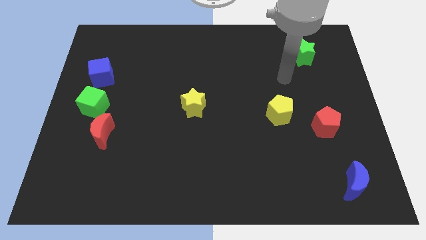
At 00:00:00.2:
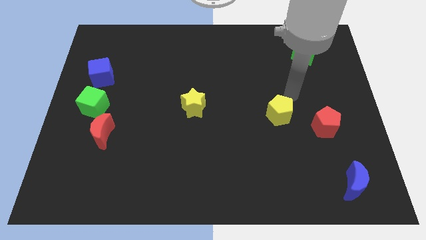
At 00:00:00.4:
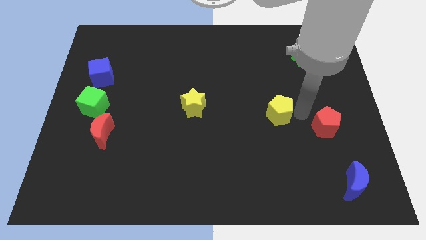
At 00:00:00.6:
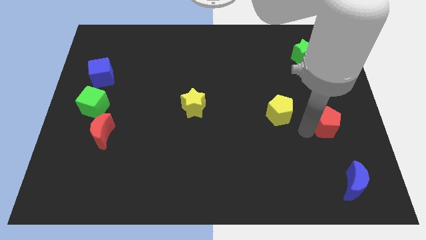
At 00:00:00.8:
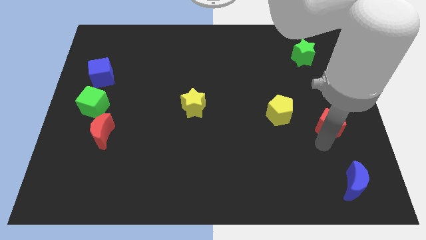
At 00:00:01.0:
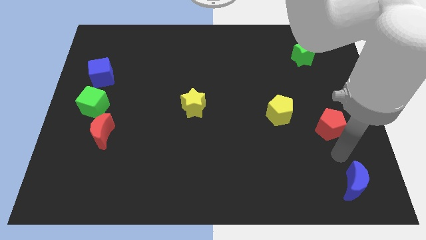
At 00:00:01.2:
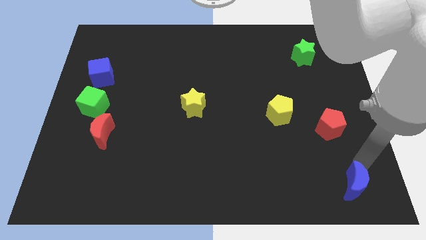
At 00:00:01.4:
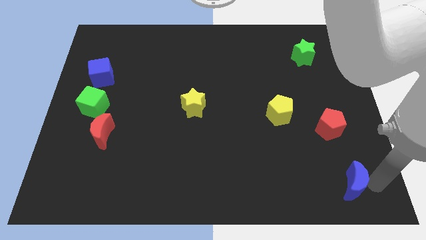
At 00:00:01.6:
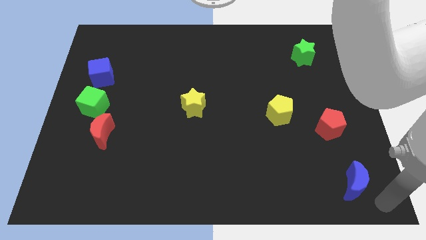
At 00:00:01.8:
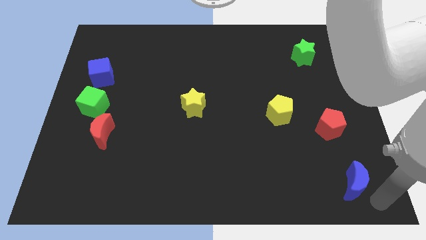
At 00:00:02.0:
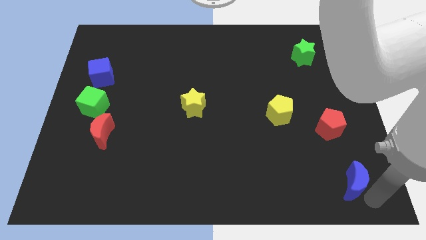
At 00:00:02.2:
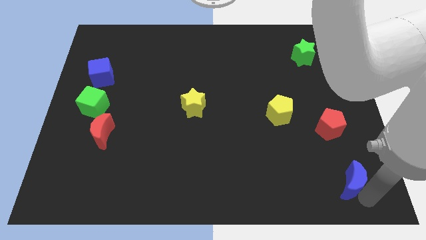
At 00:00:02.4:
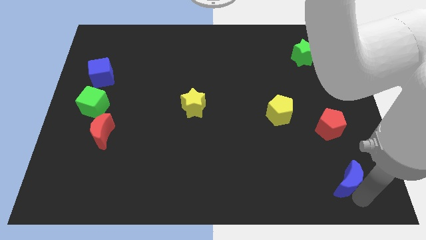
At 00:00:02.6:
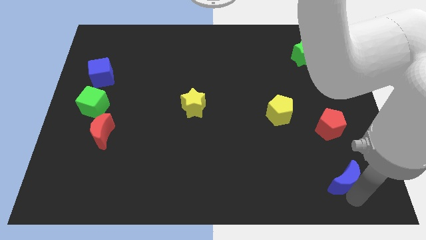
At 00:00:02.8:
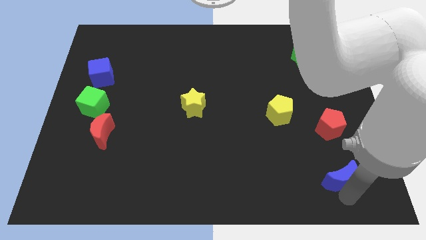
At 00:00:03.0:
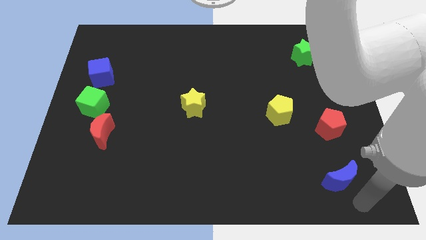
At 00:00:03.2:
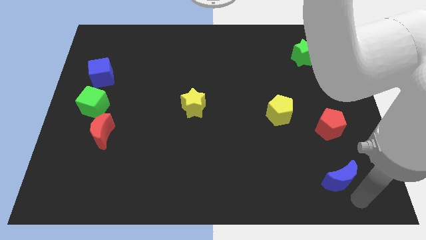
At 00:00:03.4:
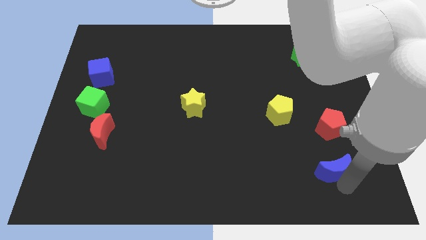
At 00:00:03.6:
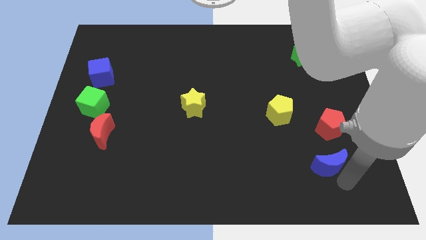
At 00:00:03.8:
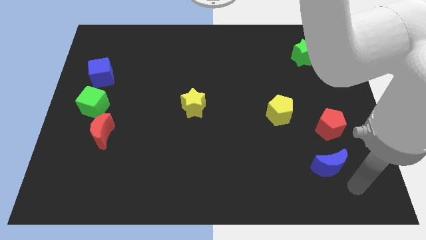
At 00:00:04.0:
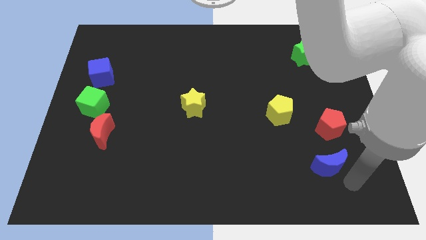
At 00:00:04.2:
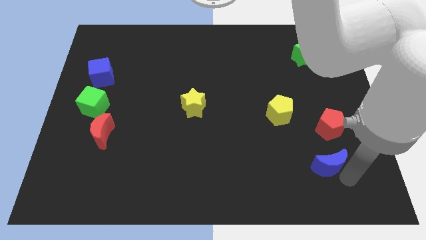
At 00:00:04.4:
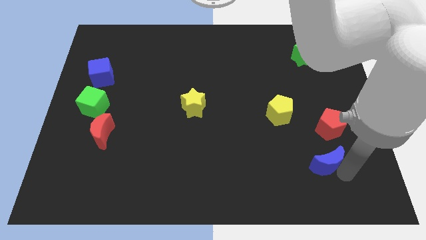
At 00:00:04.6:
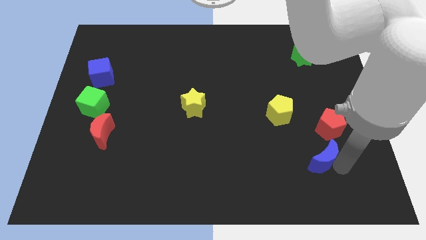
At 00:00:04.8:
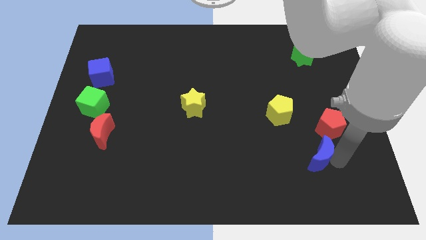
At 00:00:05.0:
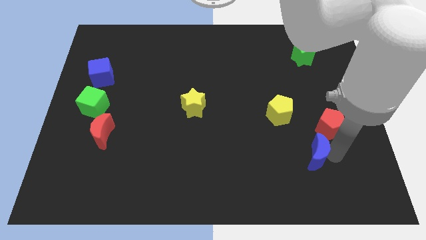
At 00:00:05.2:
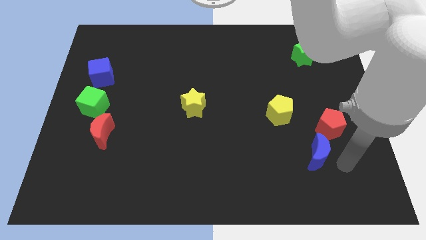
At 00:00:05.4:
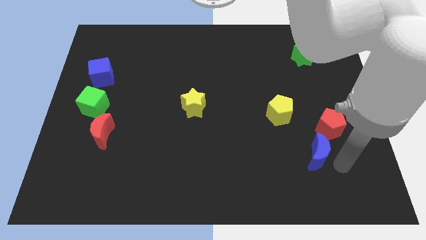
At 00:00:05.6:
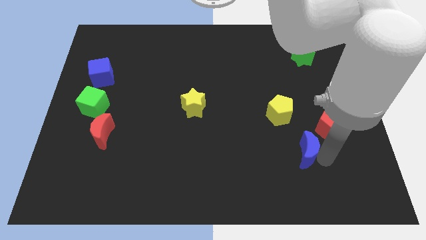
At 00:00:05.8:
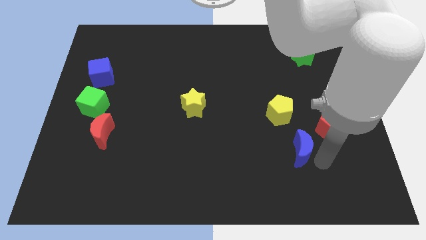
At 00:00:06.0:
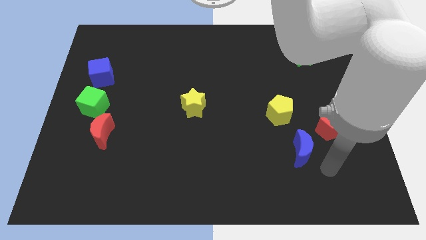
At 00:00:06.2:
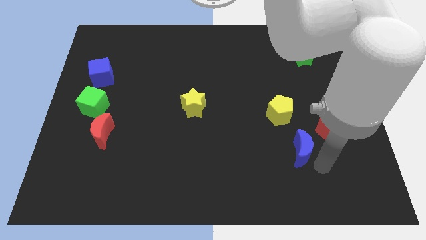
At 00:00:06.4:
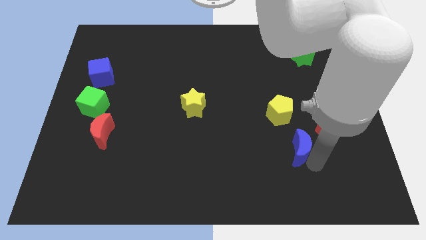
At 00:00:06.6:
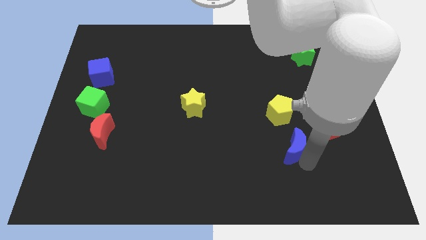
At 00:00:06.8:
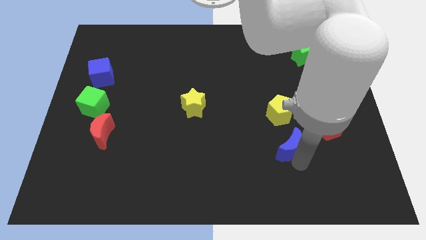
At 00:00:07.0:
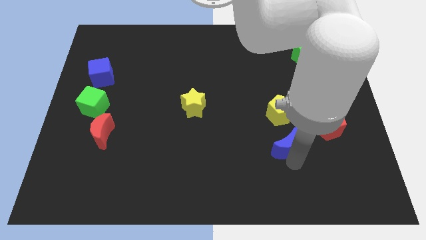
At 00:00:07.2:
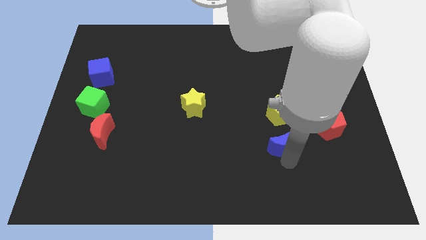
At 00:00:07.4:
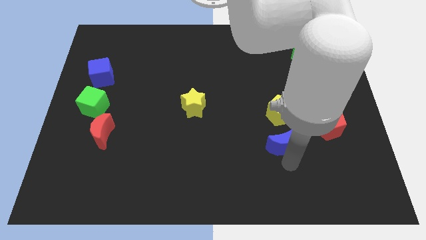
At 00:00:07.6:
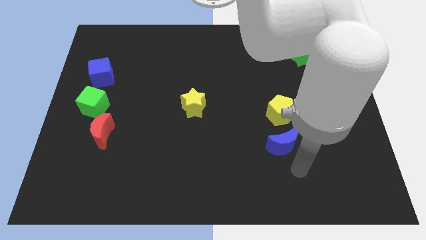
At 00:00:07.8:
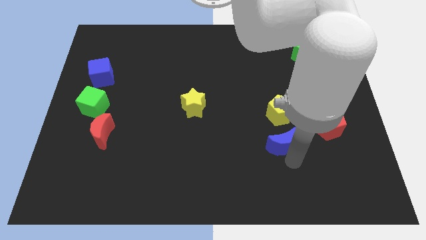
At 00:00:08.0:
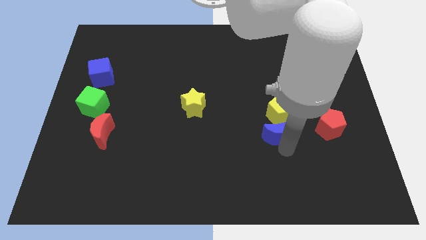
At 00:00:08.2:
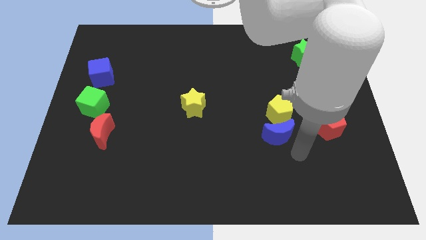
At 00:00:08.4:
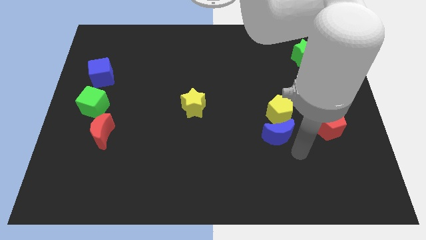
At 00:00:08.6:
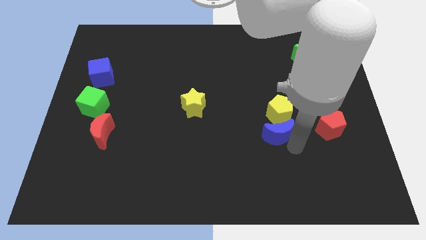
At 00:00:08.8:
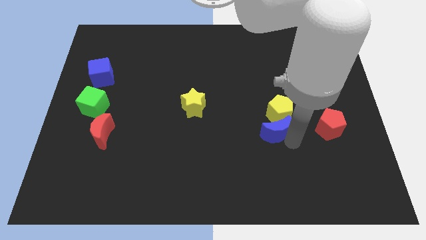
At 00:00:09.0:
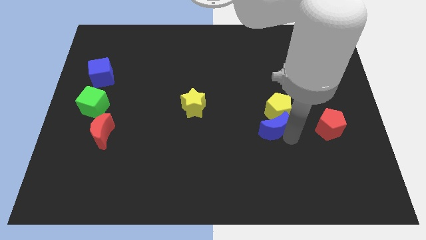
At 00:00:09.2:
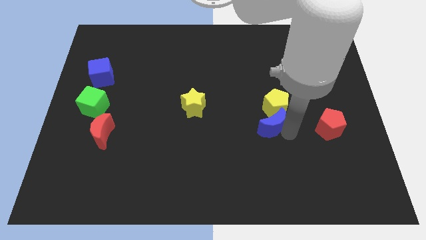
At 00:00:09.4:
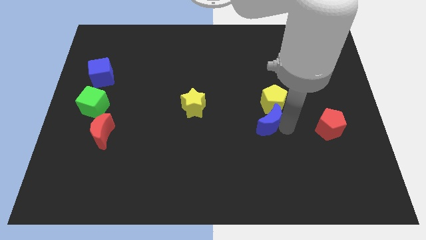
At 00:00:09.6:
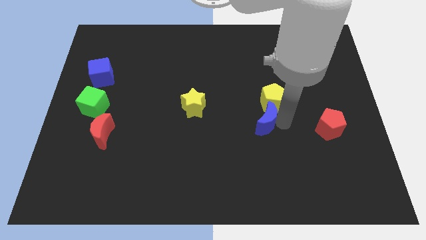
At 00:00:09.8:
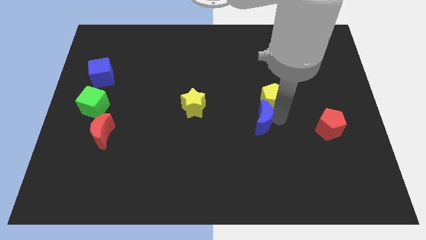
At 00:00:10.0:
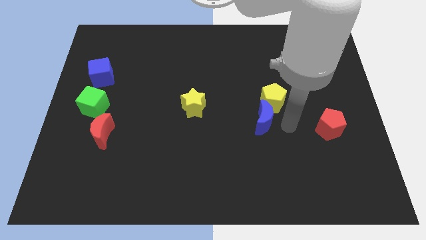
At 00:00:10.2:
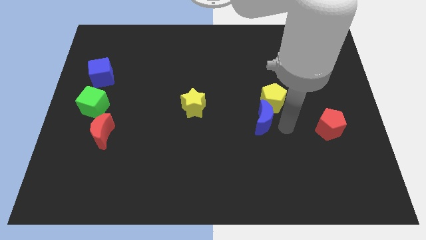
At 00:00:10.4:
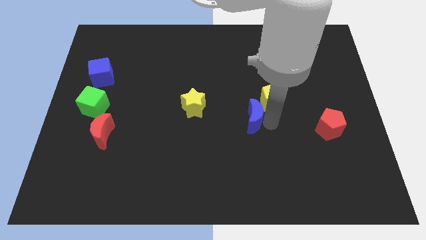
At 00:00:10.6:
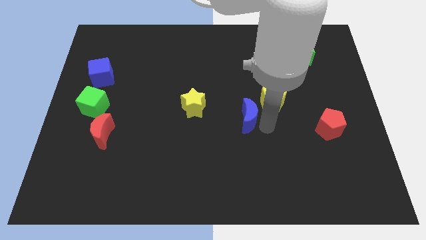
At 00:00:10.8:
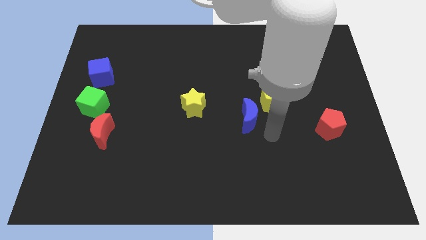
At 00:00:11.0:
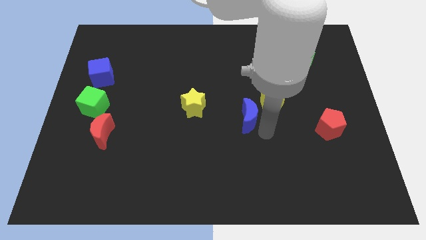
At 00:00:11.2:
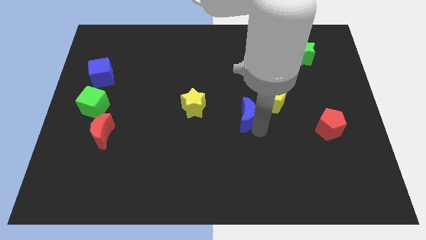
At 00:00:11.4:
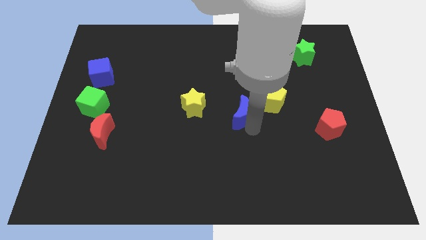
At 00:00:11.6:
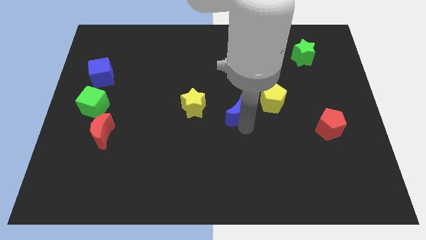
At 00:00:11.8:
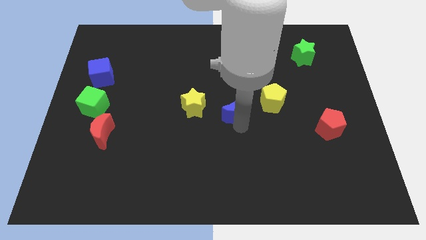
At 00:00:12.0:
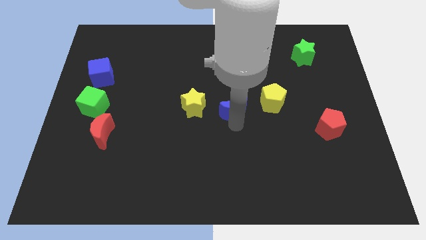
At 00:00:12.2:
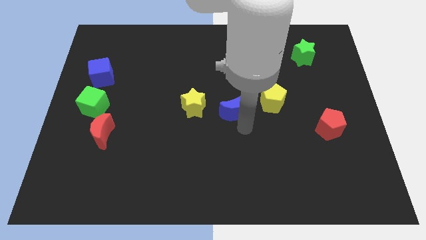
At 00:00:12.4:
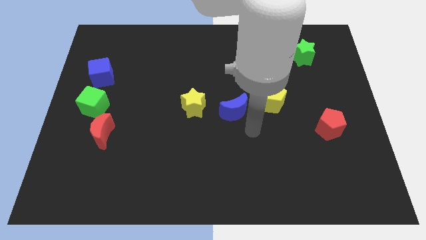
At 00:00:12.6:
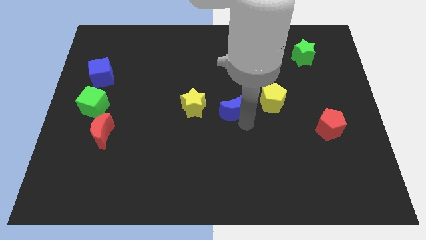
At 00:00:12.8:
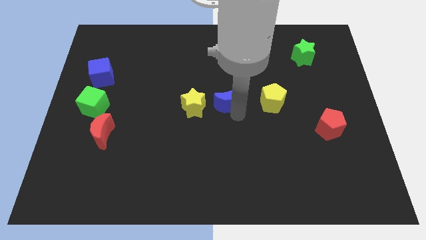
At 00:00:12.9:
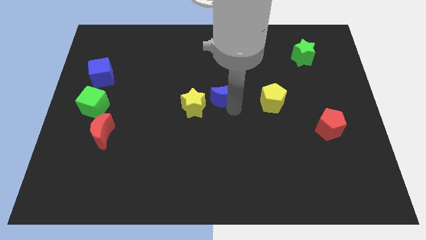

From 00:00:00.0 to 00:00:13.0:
push the blue moon to the top right side of the yellow star

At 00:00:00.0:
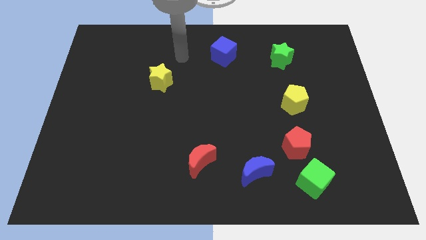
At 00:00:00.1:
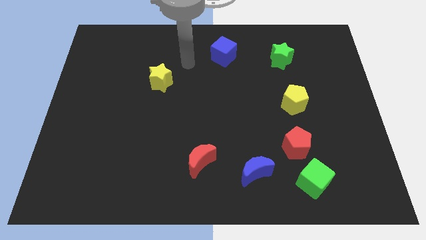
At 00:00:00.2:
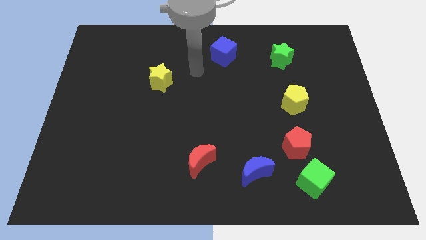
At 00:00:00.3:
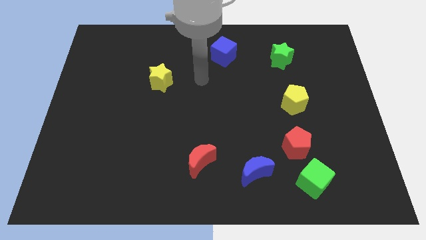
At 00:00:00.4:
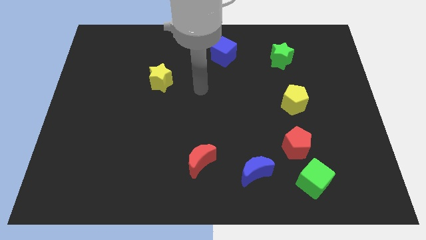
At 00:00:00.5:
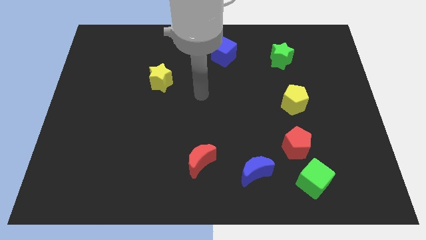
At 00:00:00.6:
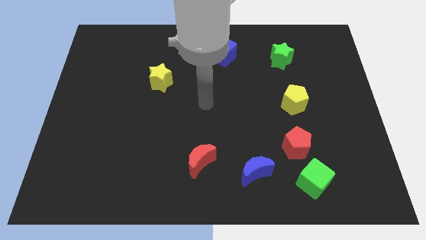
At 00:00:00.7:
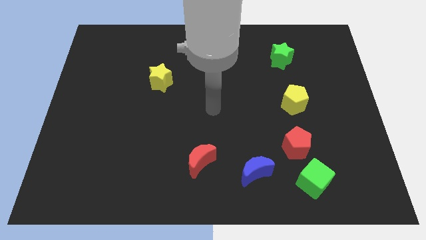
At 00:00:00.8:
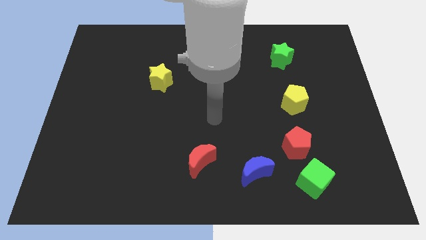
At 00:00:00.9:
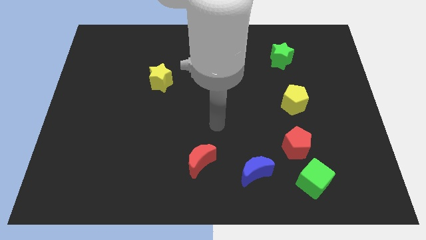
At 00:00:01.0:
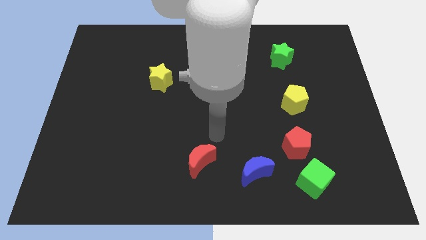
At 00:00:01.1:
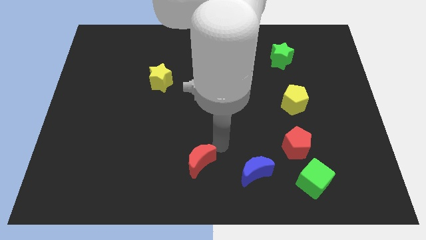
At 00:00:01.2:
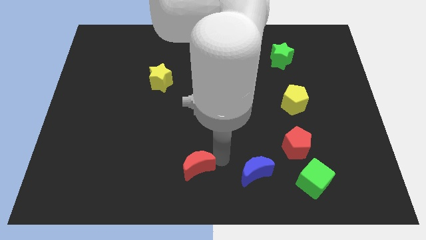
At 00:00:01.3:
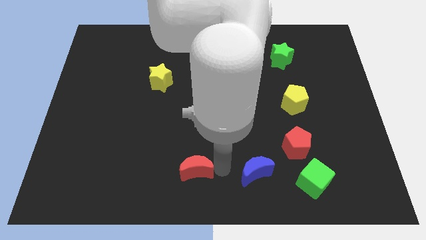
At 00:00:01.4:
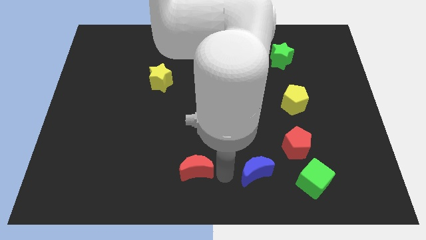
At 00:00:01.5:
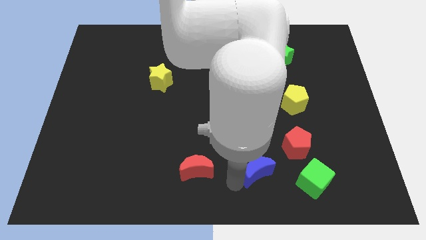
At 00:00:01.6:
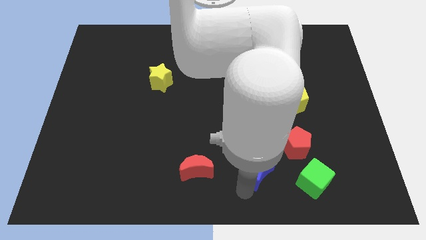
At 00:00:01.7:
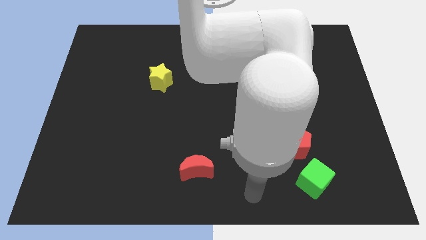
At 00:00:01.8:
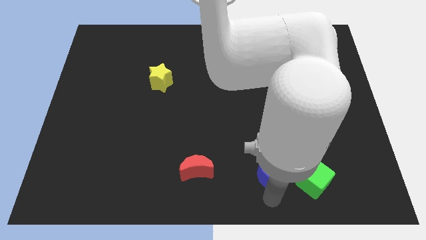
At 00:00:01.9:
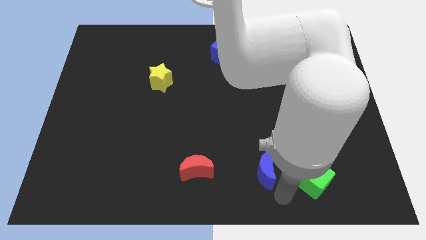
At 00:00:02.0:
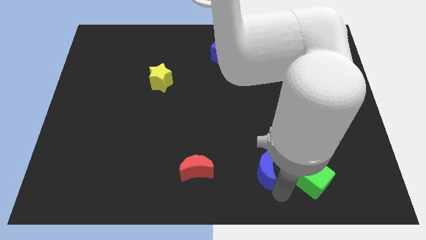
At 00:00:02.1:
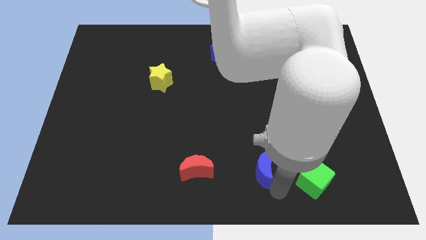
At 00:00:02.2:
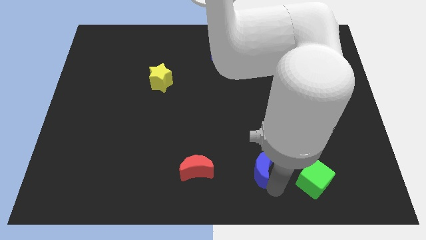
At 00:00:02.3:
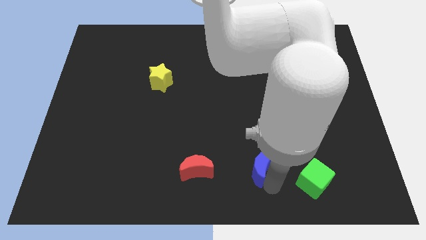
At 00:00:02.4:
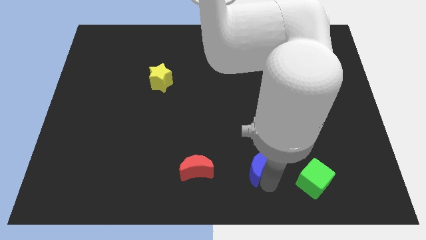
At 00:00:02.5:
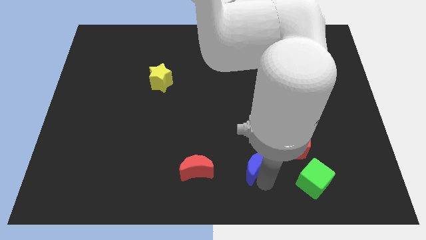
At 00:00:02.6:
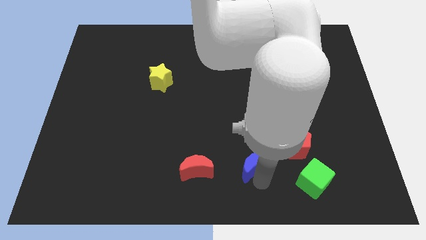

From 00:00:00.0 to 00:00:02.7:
move the blue moon to the left side of the red pentagon
